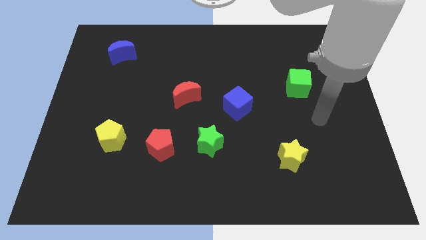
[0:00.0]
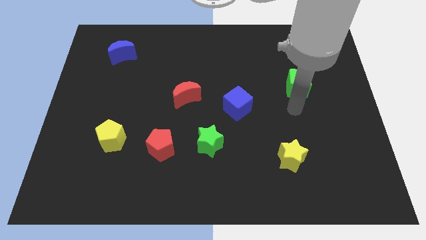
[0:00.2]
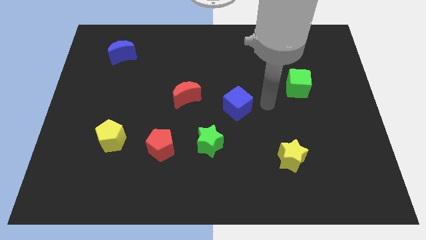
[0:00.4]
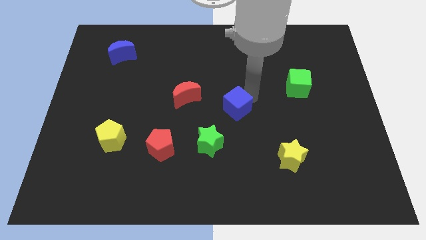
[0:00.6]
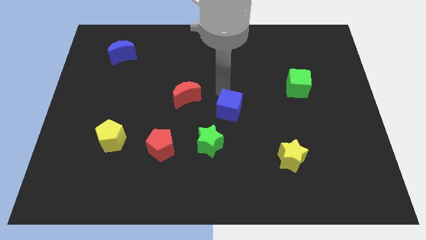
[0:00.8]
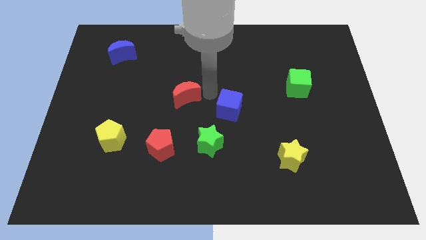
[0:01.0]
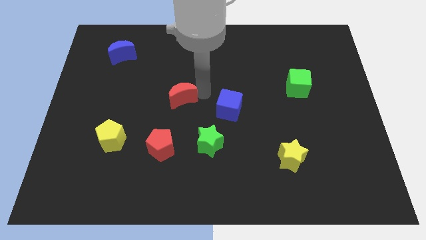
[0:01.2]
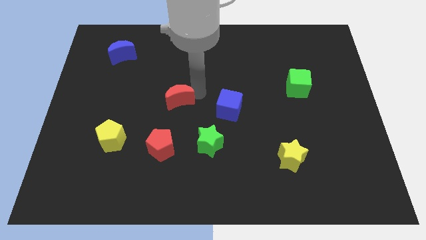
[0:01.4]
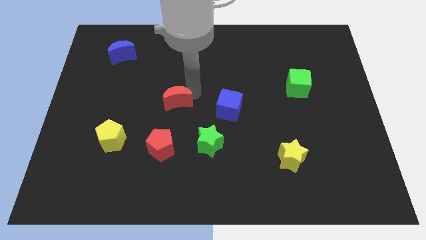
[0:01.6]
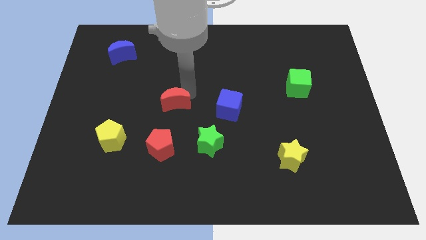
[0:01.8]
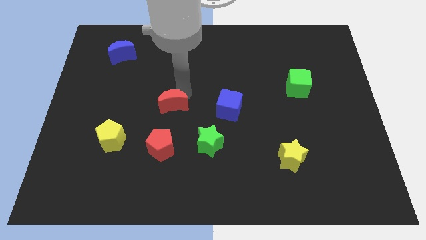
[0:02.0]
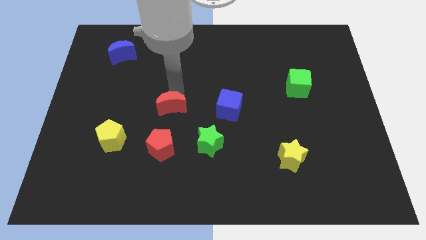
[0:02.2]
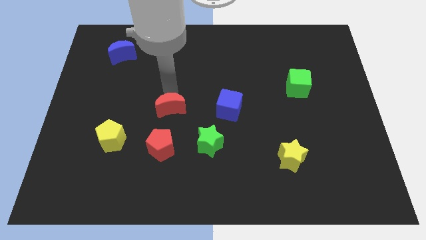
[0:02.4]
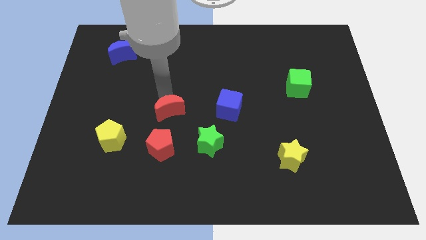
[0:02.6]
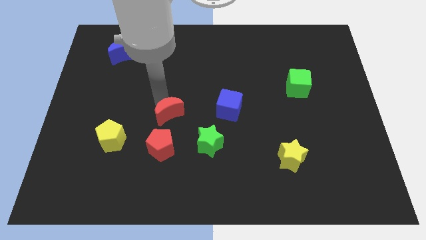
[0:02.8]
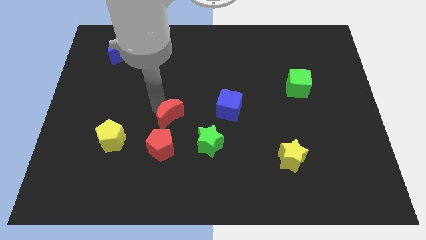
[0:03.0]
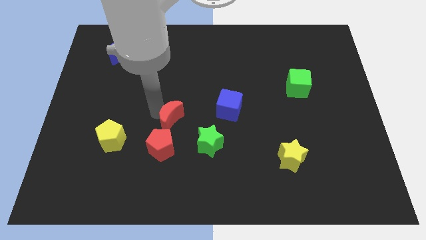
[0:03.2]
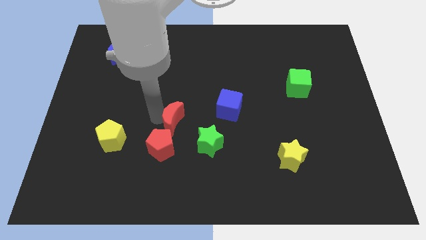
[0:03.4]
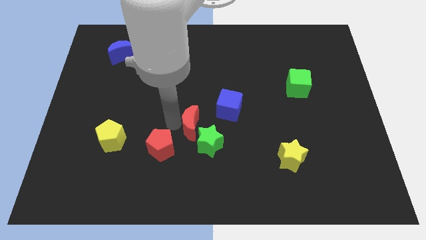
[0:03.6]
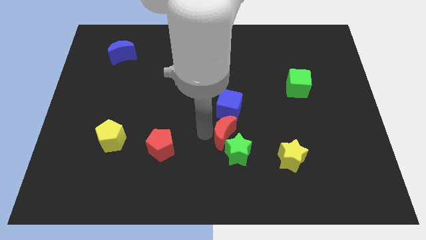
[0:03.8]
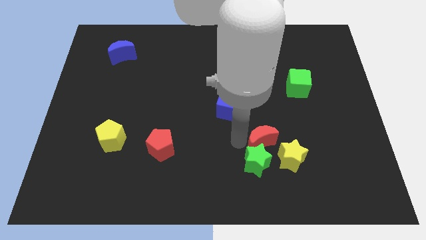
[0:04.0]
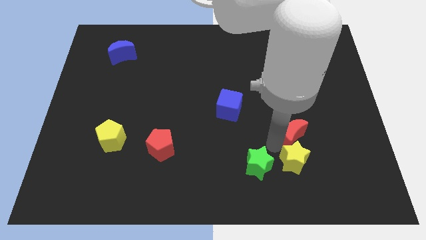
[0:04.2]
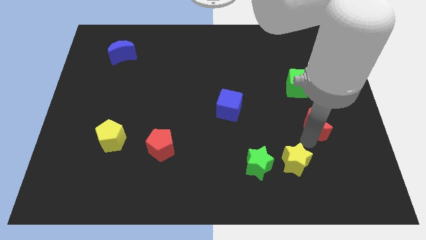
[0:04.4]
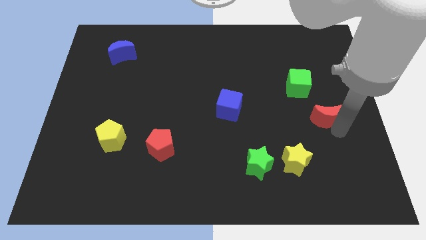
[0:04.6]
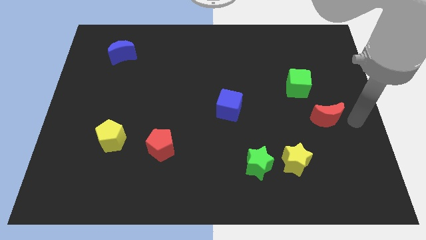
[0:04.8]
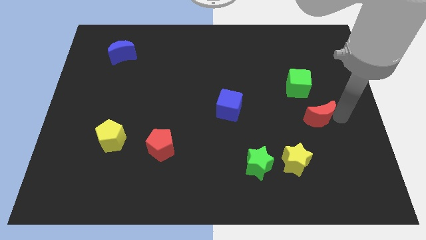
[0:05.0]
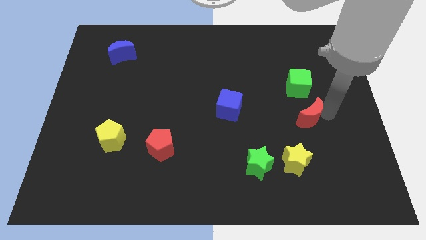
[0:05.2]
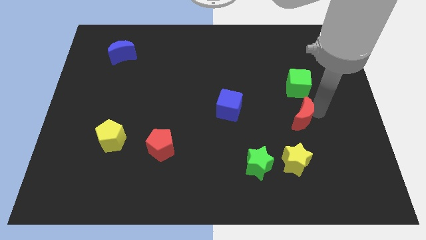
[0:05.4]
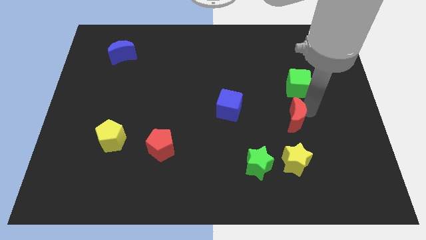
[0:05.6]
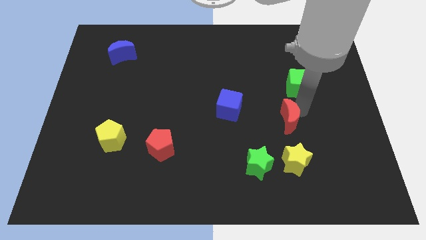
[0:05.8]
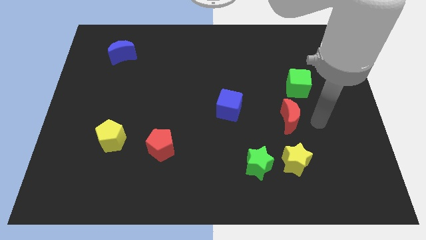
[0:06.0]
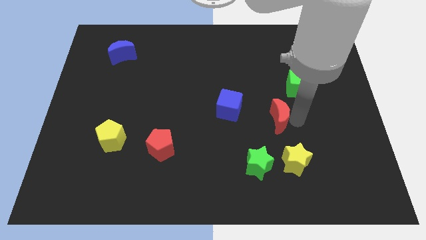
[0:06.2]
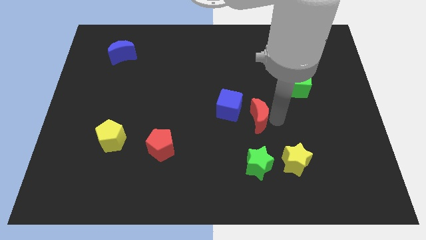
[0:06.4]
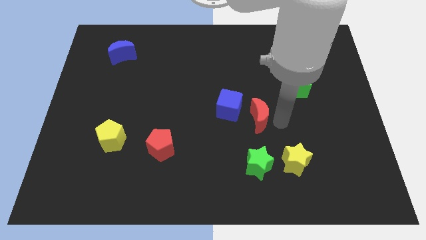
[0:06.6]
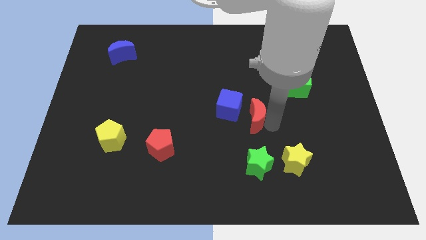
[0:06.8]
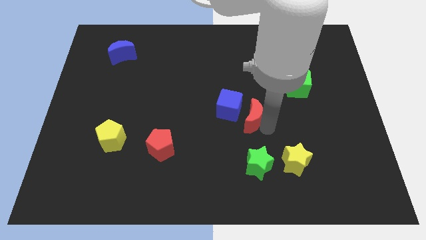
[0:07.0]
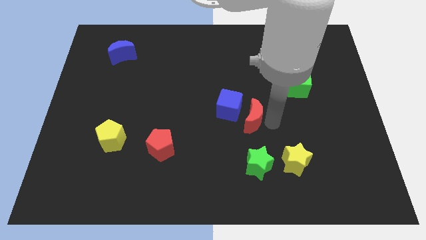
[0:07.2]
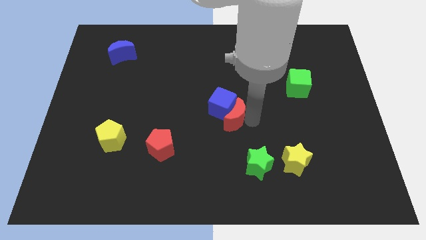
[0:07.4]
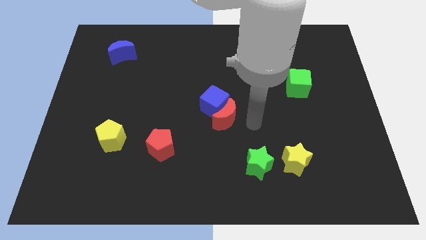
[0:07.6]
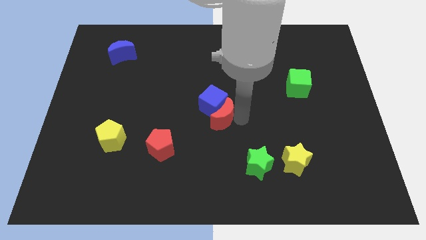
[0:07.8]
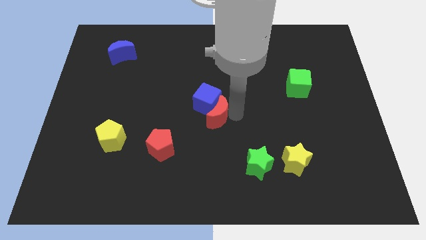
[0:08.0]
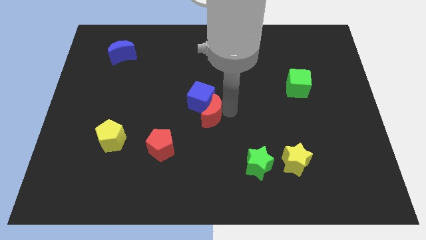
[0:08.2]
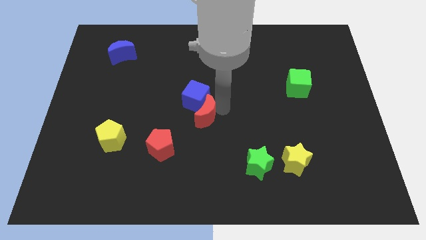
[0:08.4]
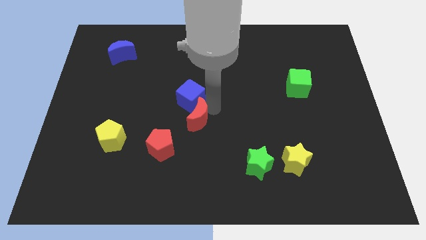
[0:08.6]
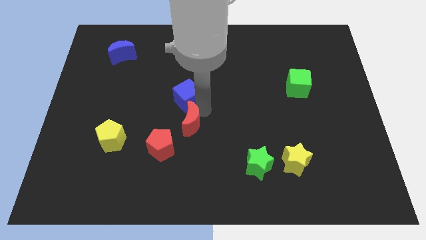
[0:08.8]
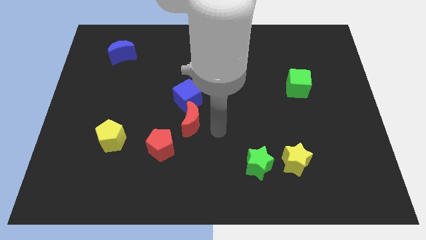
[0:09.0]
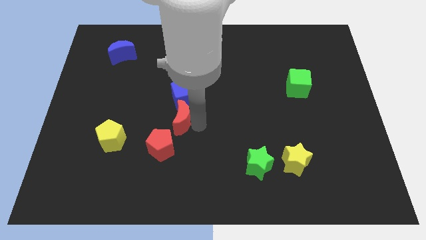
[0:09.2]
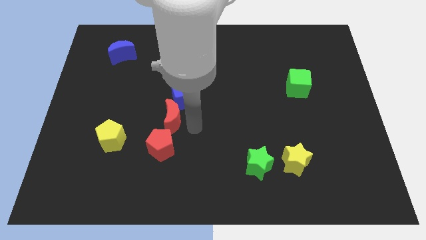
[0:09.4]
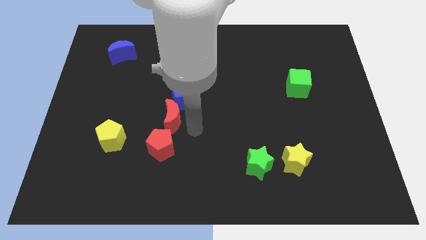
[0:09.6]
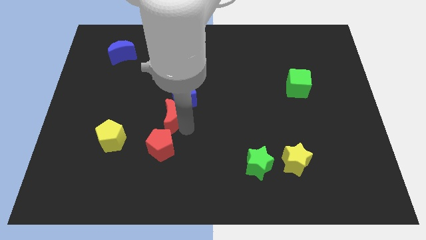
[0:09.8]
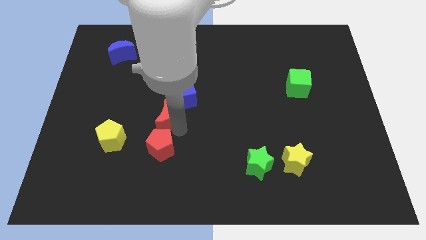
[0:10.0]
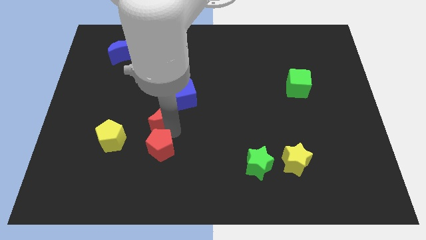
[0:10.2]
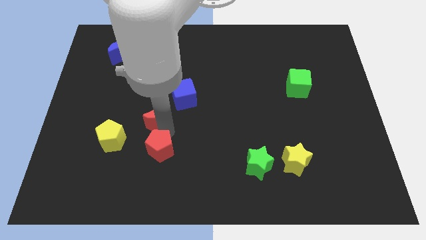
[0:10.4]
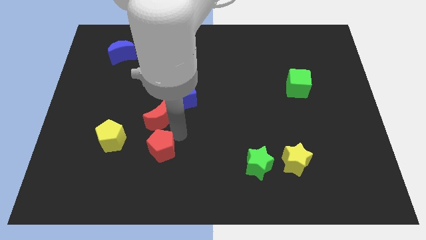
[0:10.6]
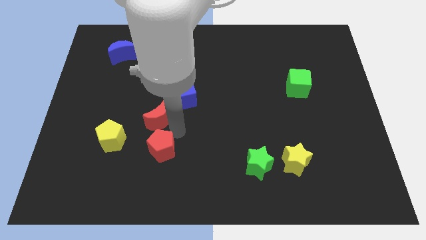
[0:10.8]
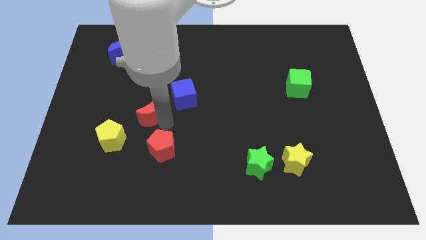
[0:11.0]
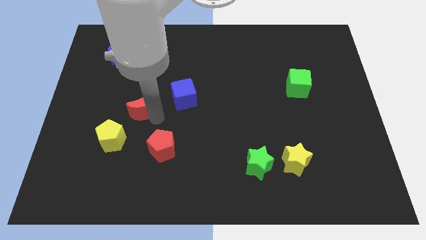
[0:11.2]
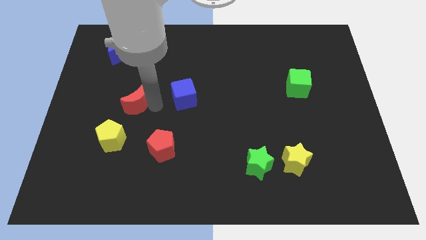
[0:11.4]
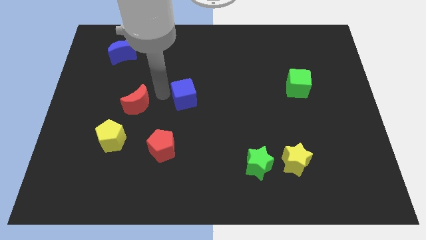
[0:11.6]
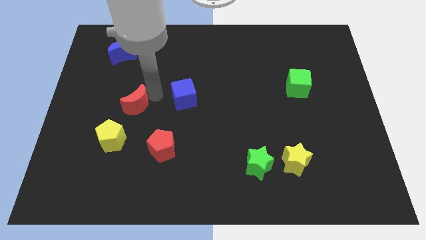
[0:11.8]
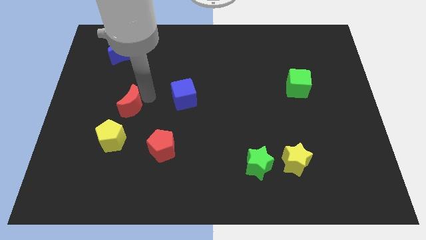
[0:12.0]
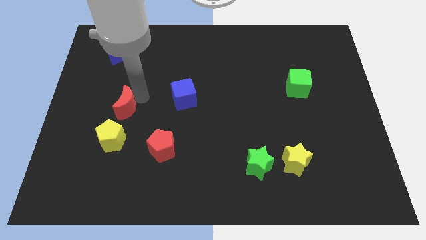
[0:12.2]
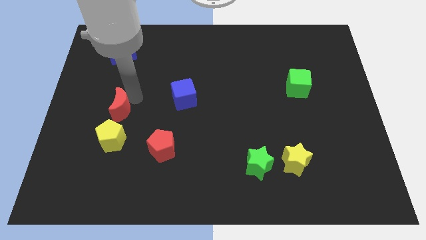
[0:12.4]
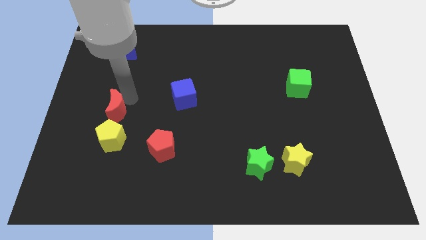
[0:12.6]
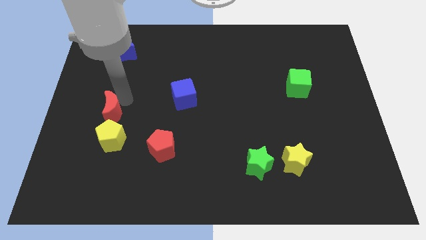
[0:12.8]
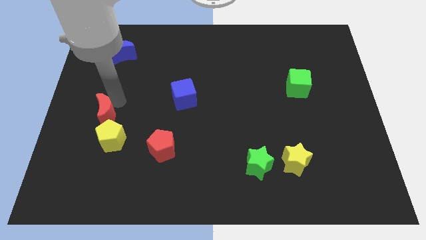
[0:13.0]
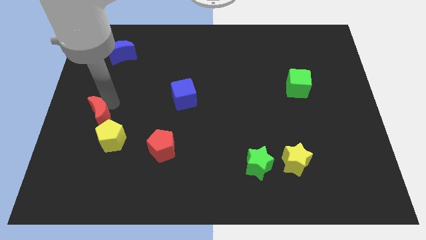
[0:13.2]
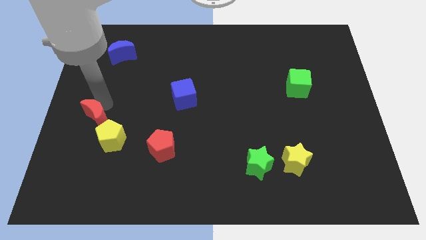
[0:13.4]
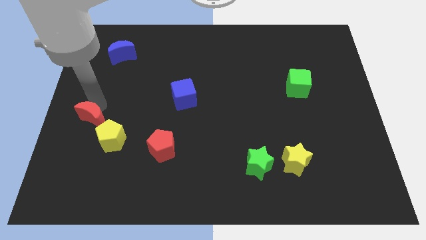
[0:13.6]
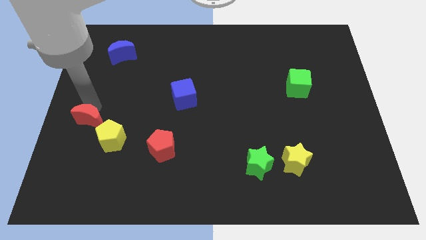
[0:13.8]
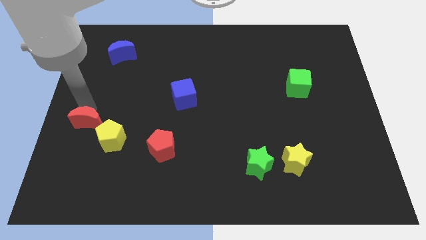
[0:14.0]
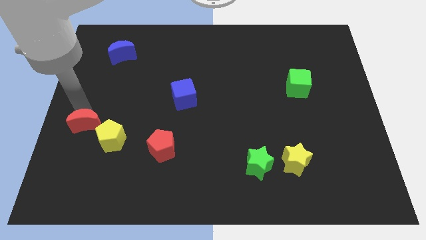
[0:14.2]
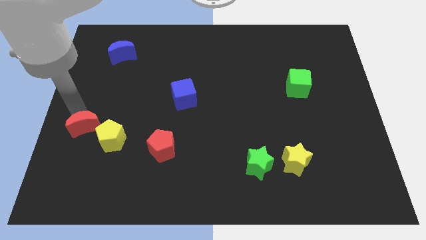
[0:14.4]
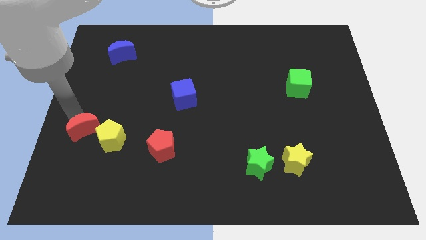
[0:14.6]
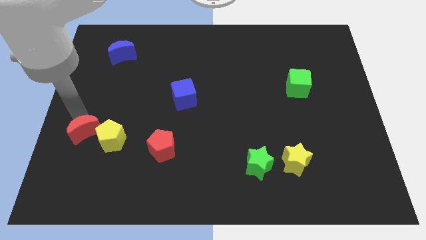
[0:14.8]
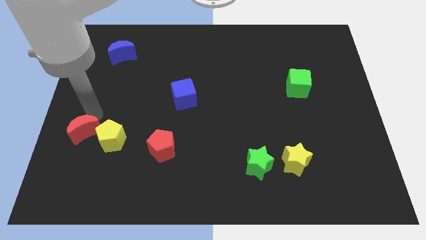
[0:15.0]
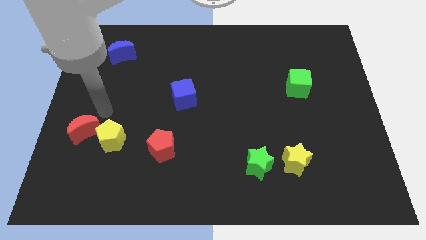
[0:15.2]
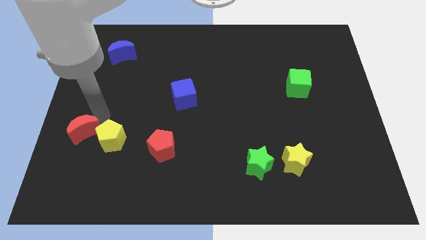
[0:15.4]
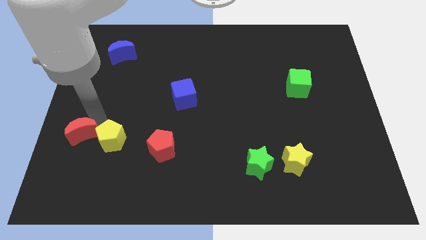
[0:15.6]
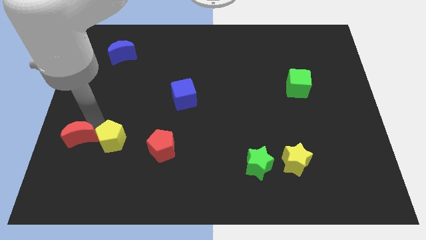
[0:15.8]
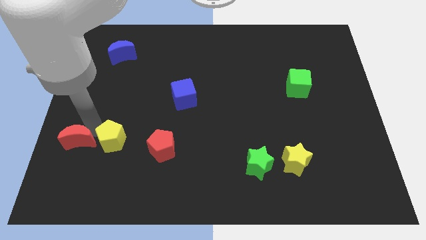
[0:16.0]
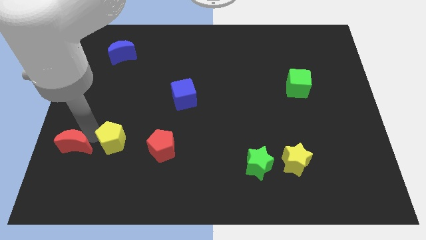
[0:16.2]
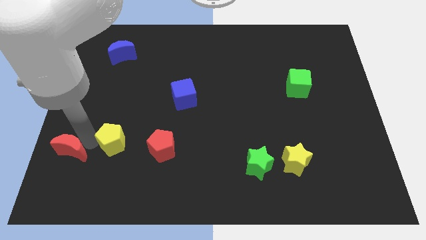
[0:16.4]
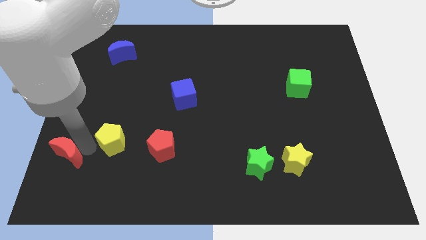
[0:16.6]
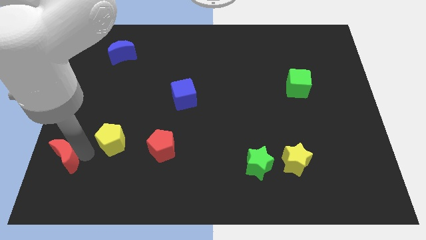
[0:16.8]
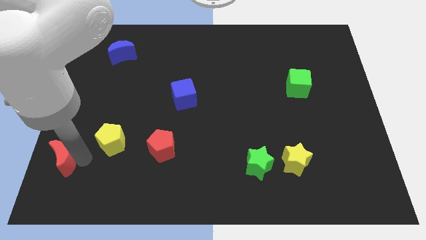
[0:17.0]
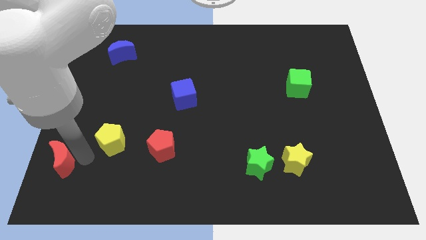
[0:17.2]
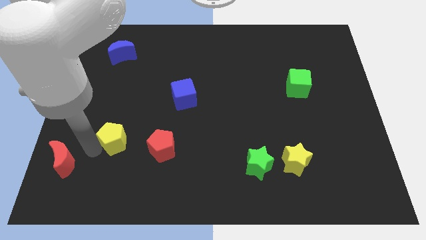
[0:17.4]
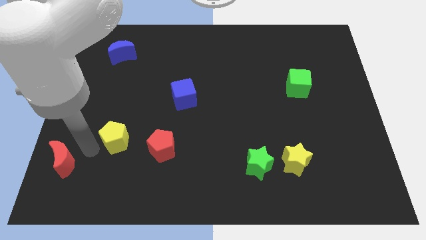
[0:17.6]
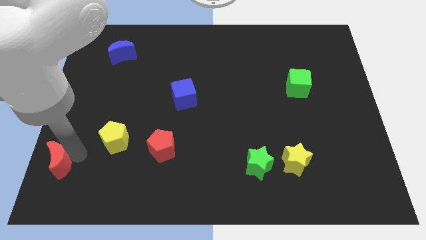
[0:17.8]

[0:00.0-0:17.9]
move the red moon to the lower left corner
